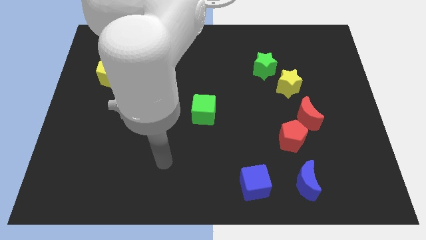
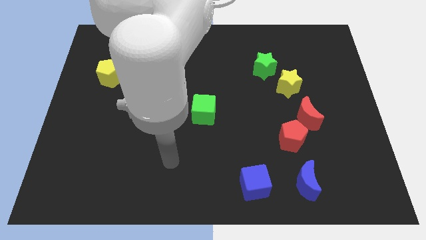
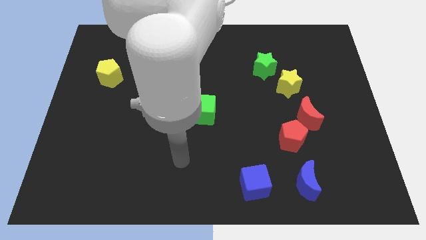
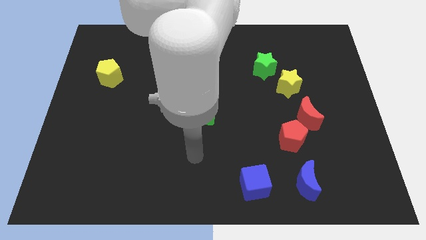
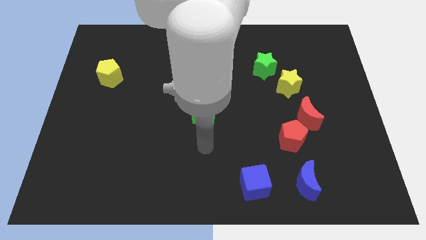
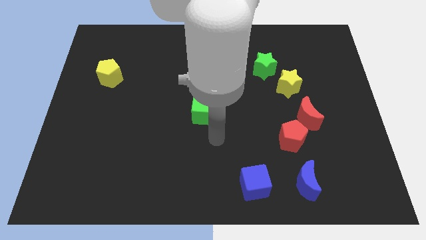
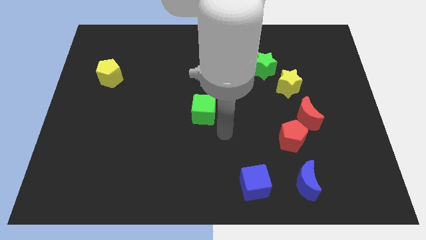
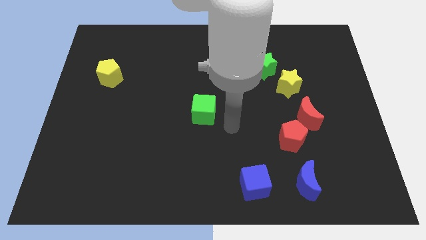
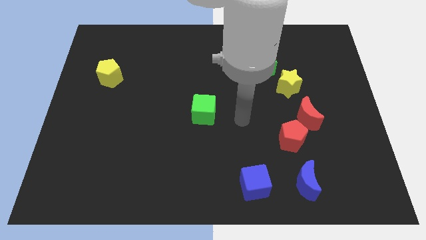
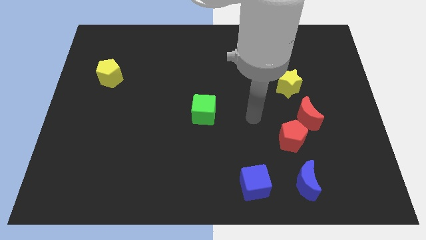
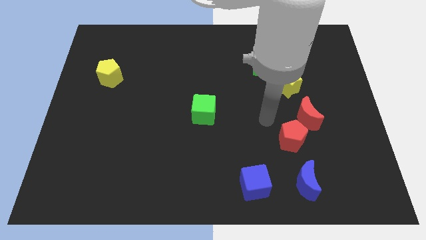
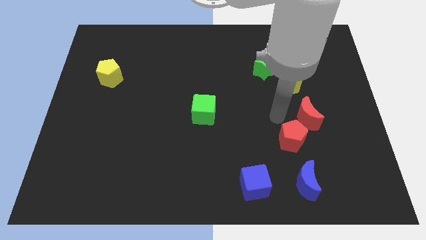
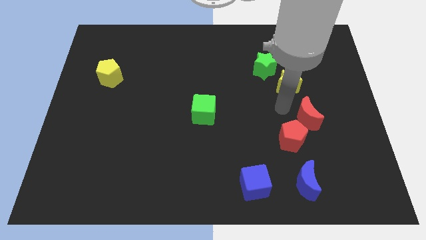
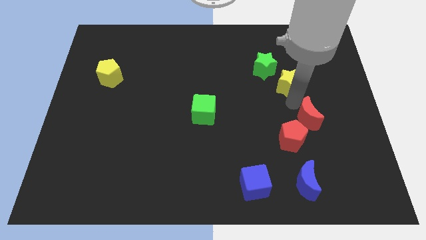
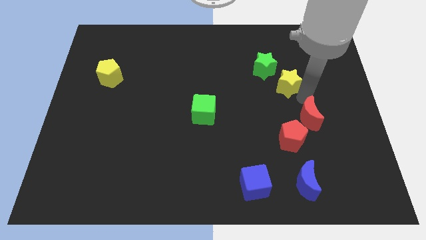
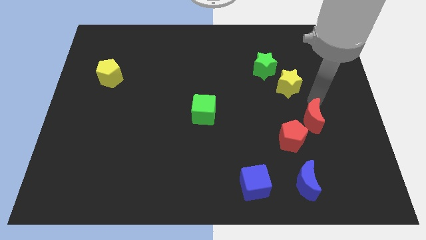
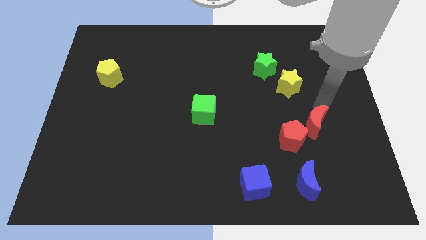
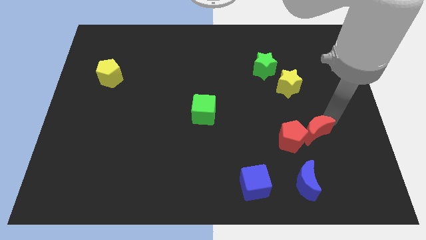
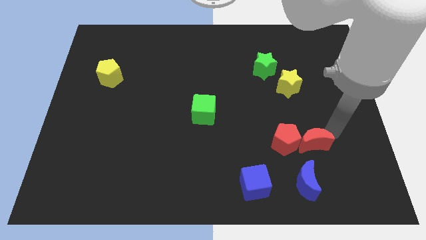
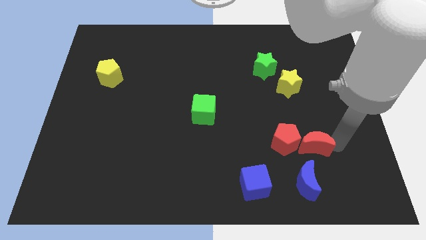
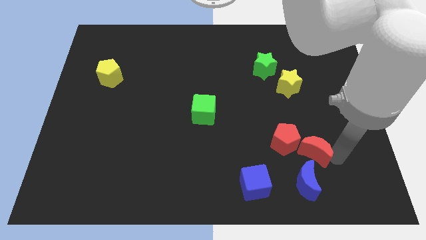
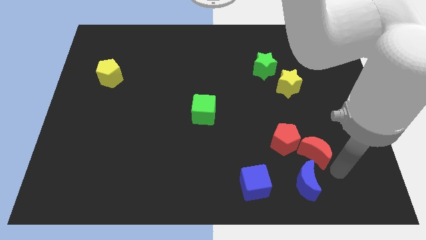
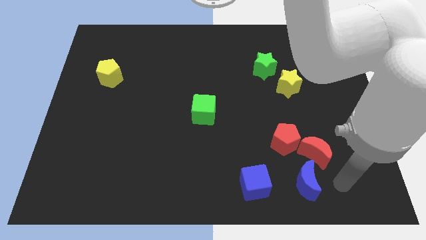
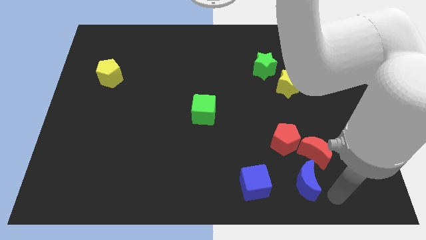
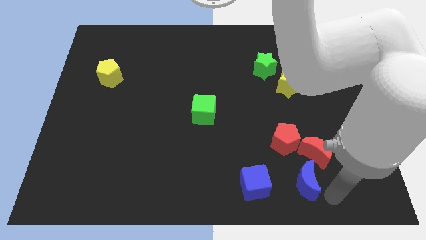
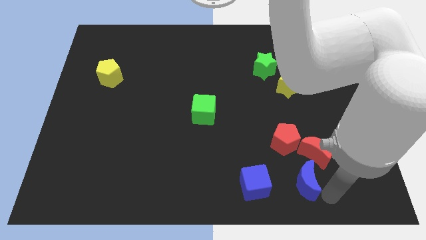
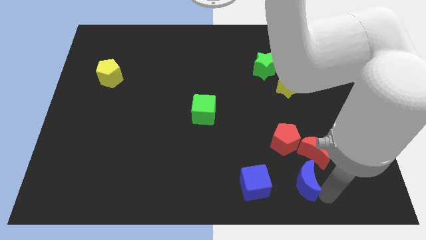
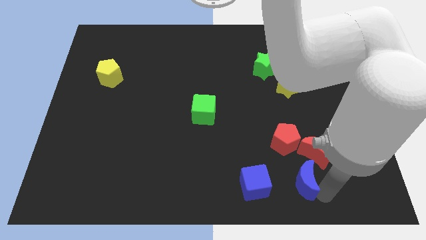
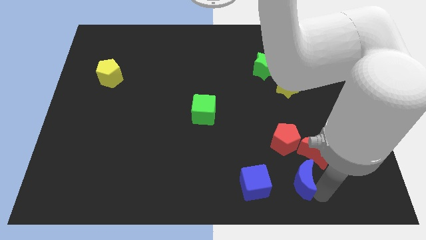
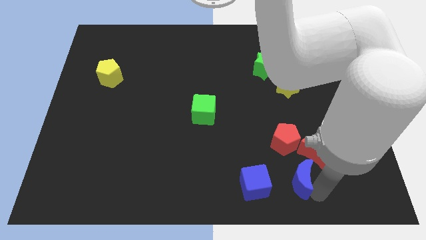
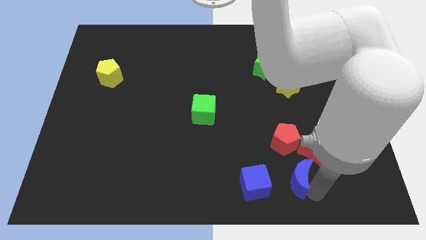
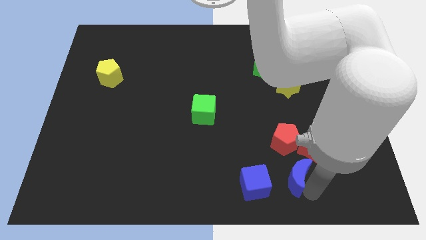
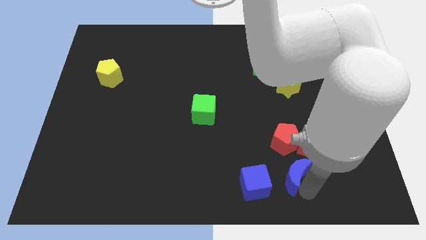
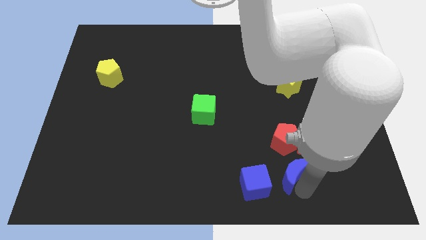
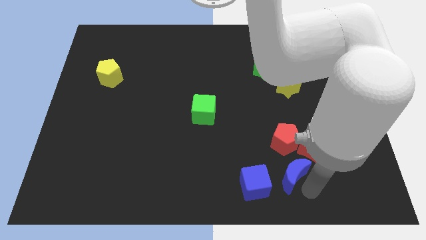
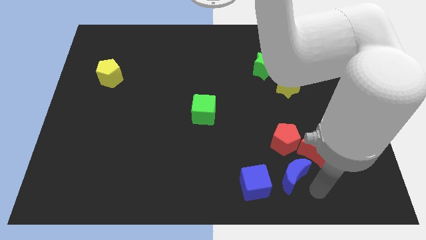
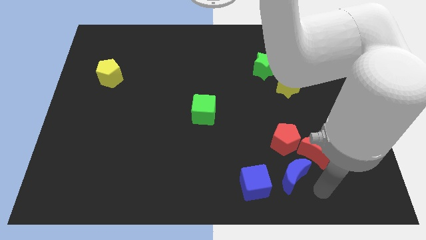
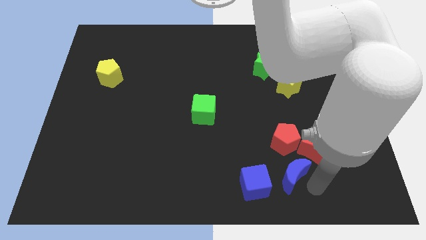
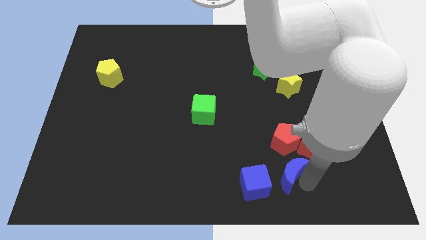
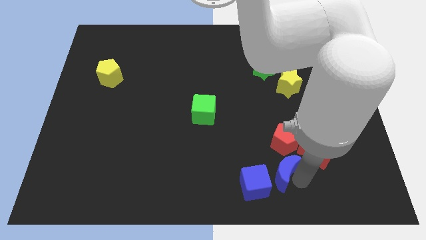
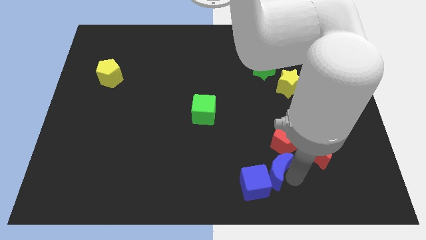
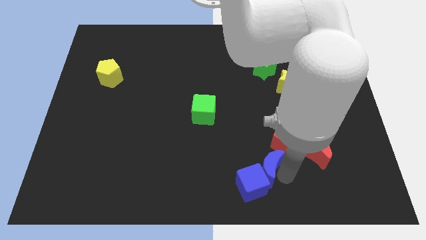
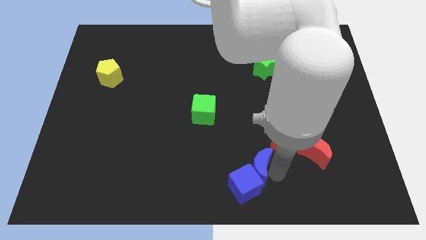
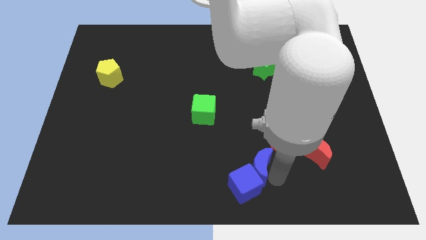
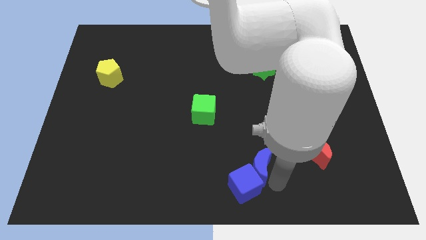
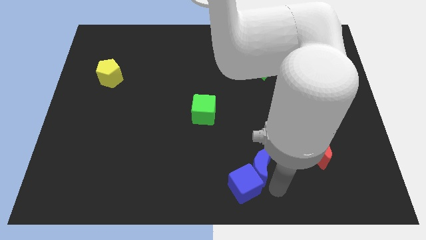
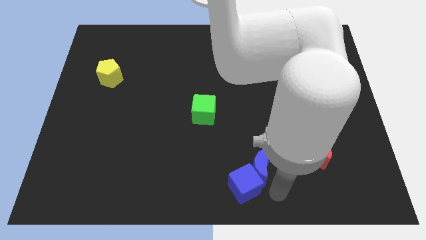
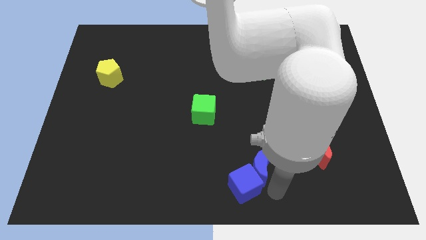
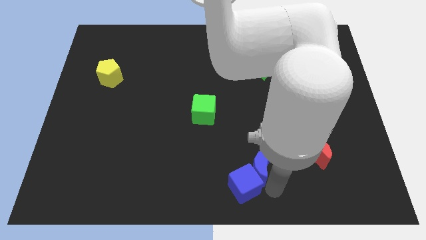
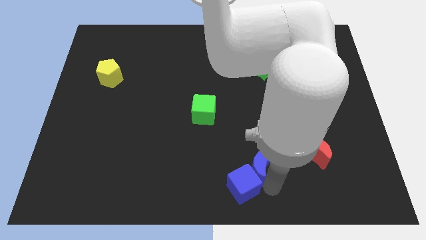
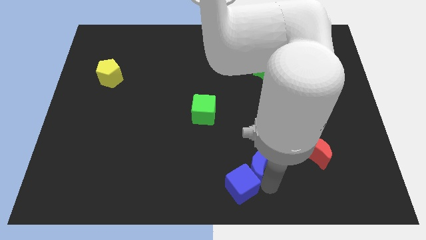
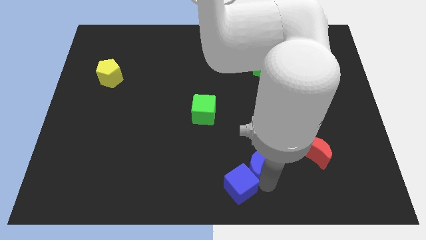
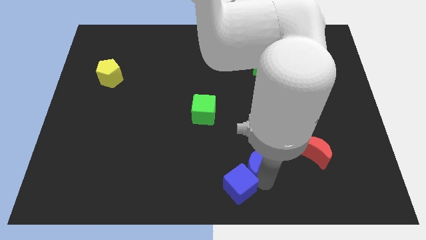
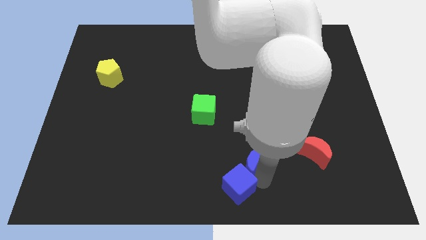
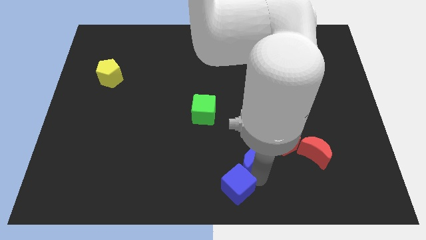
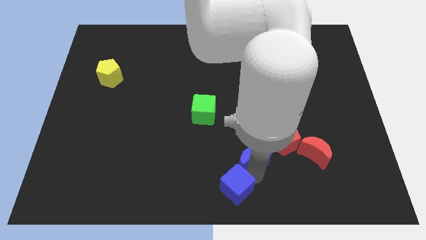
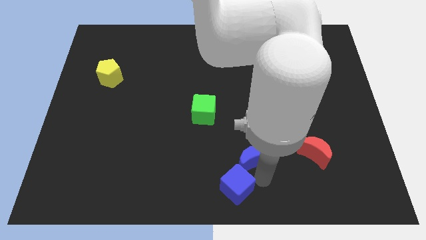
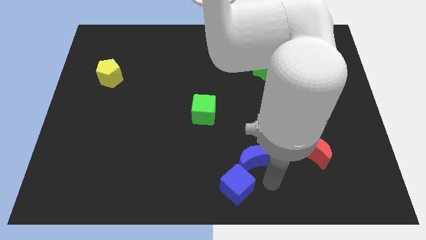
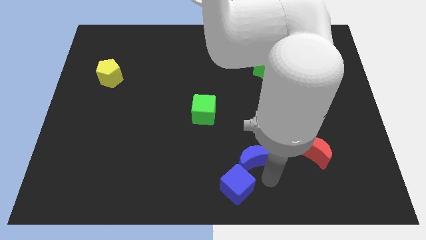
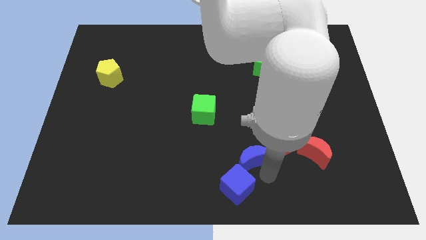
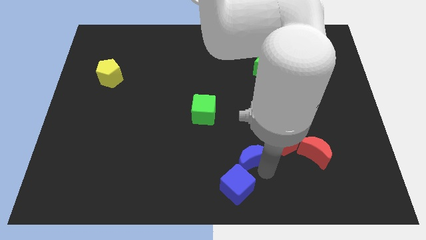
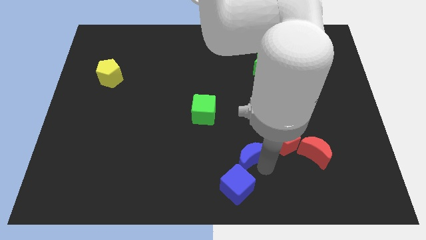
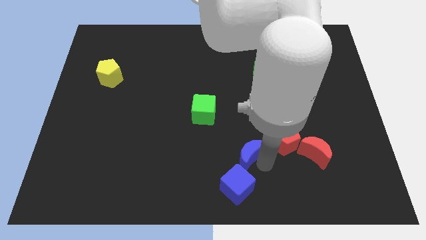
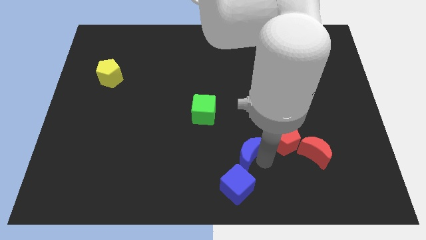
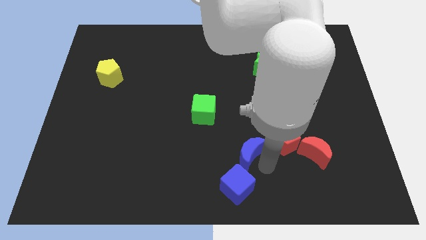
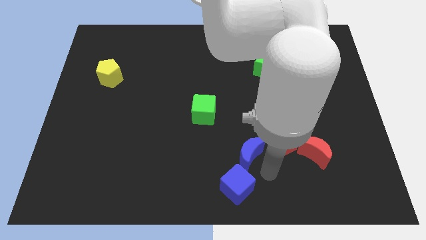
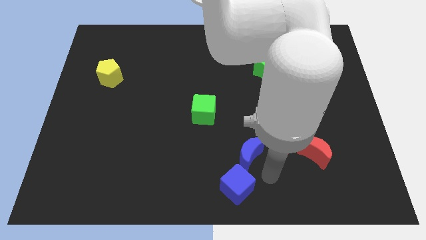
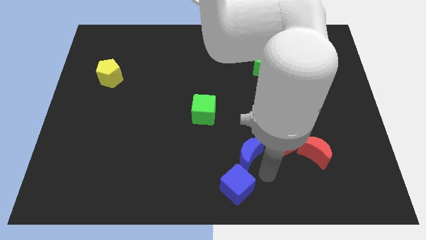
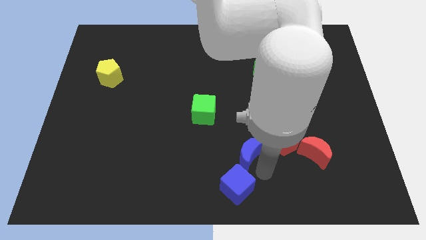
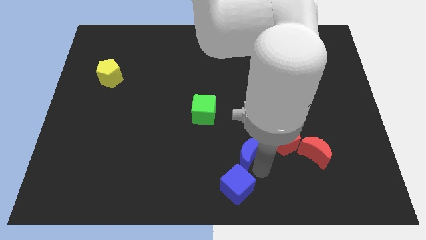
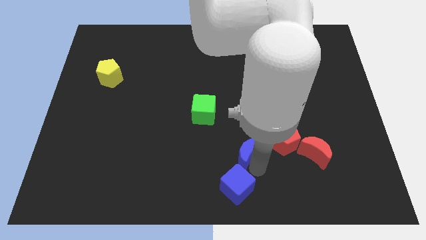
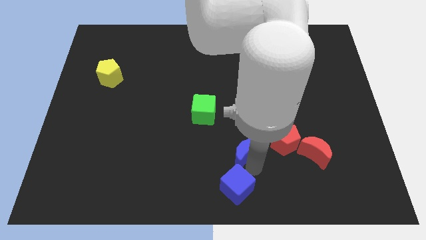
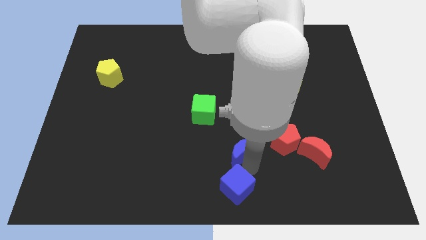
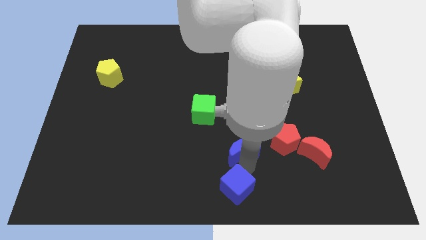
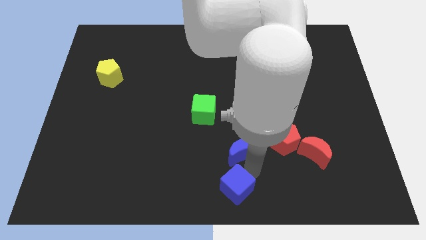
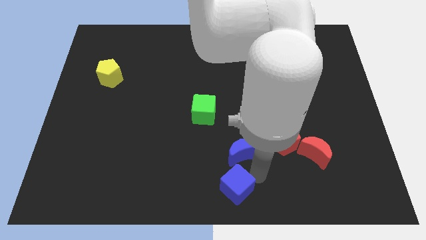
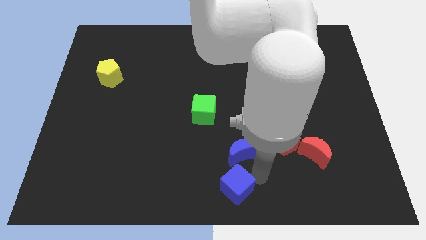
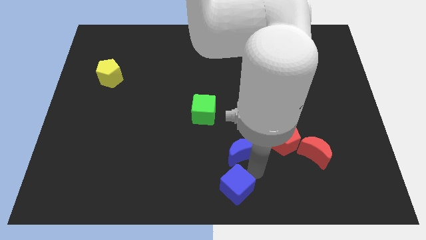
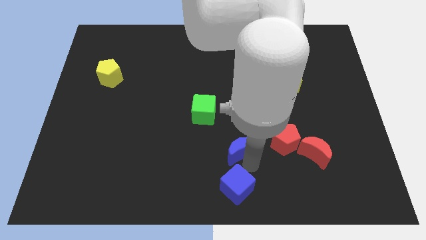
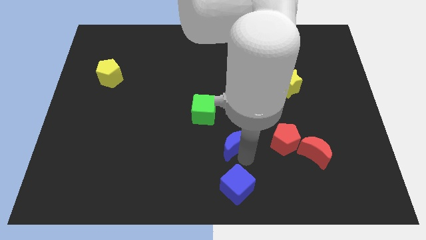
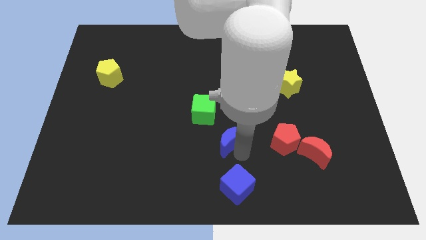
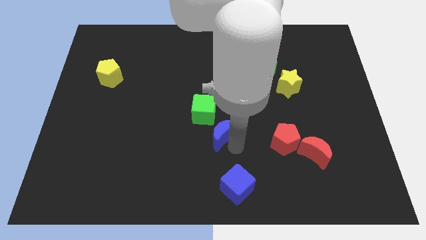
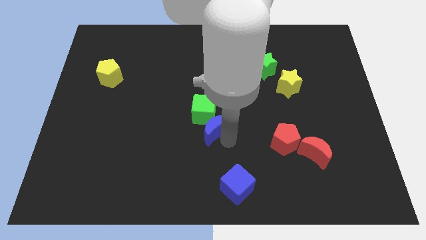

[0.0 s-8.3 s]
push the blue moon towards the green cube
